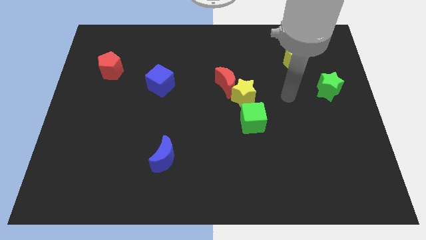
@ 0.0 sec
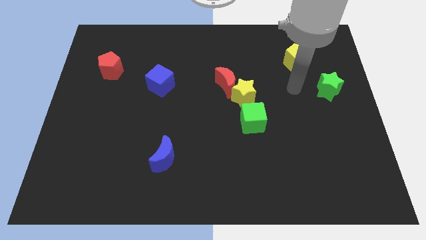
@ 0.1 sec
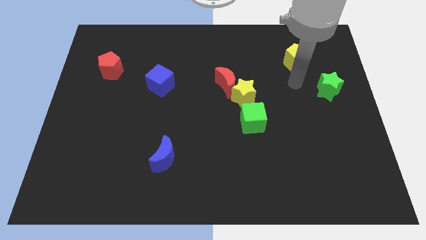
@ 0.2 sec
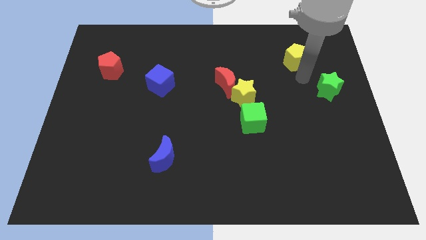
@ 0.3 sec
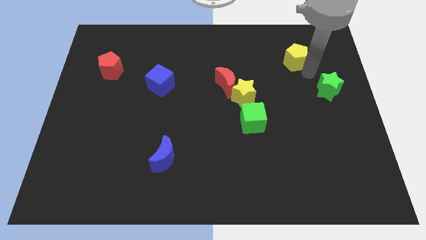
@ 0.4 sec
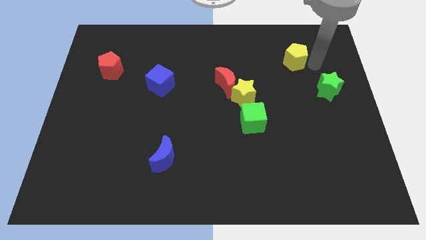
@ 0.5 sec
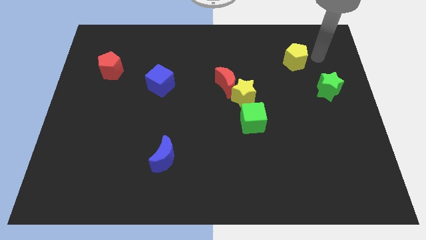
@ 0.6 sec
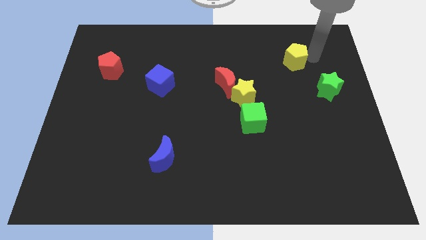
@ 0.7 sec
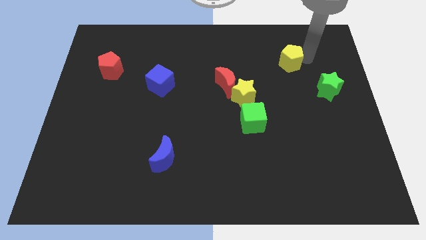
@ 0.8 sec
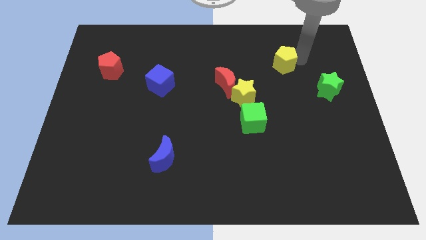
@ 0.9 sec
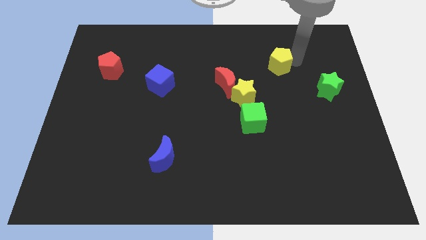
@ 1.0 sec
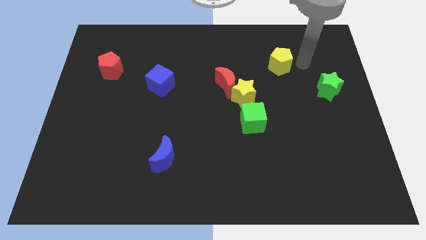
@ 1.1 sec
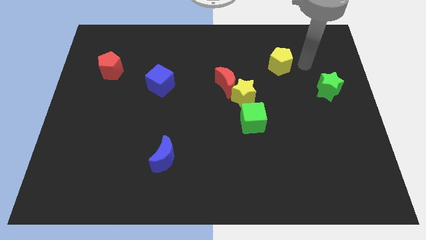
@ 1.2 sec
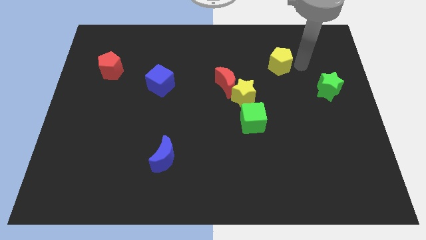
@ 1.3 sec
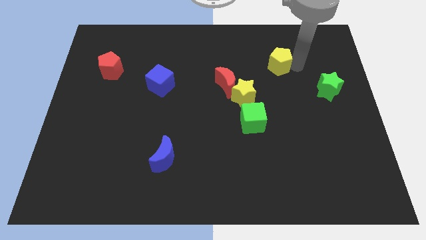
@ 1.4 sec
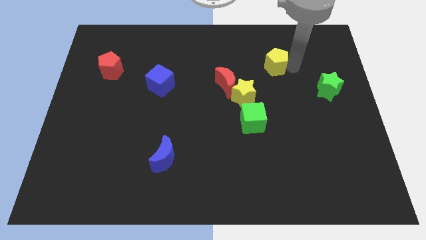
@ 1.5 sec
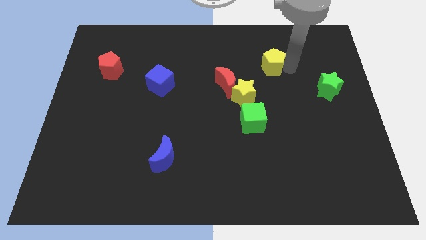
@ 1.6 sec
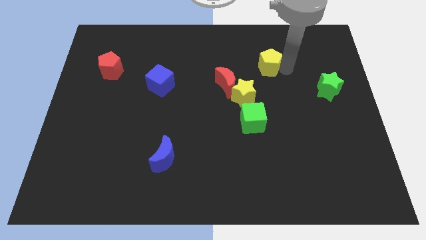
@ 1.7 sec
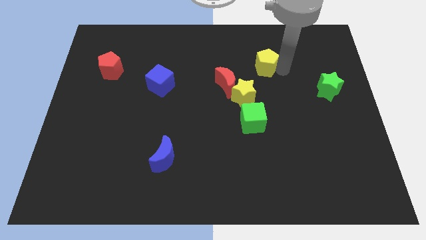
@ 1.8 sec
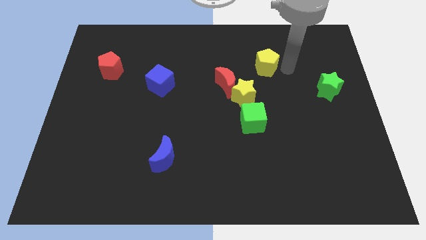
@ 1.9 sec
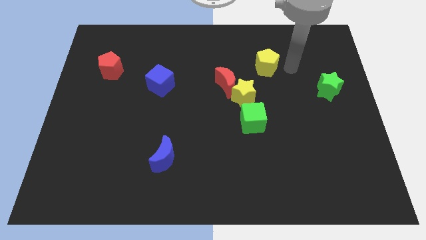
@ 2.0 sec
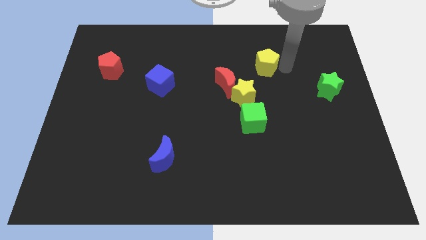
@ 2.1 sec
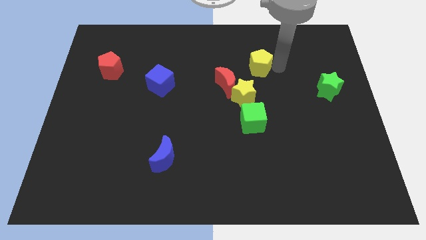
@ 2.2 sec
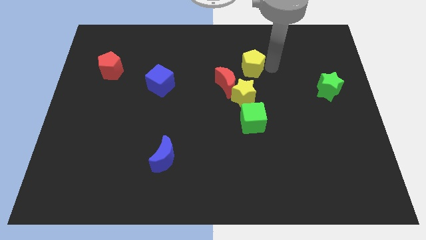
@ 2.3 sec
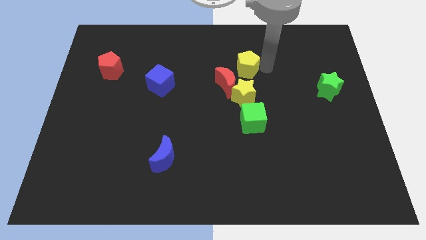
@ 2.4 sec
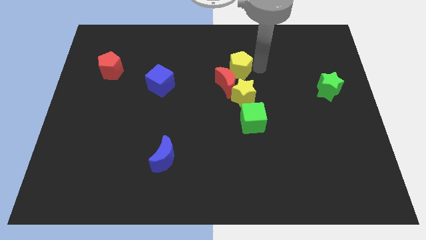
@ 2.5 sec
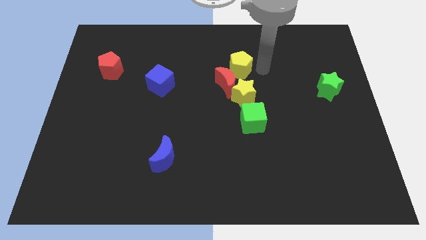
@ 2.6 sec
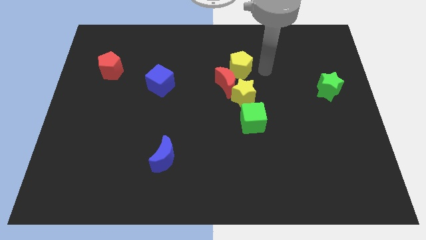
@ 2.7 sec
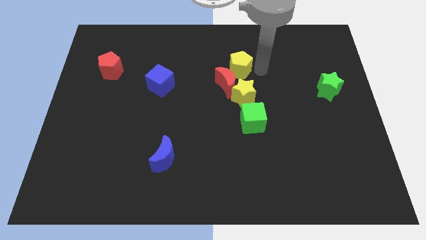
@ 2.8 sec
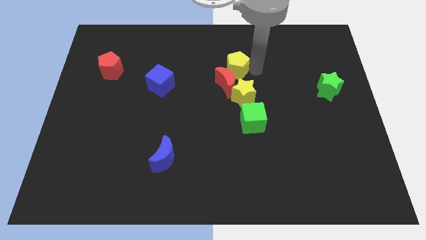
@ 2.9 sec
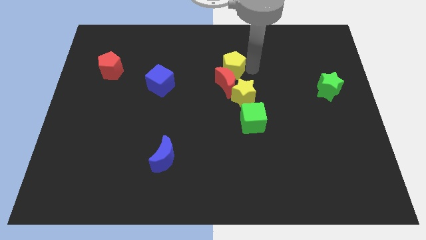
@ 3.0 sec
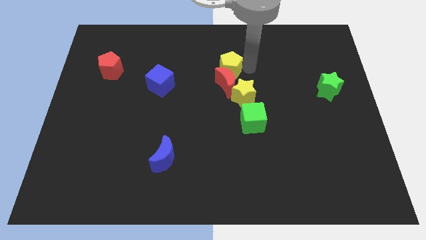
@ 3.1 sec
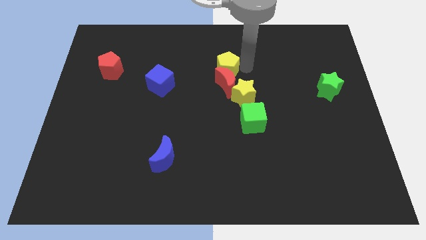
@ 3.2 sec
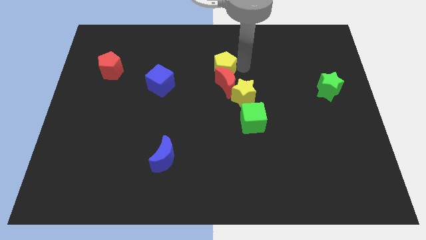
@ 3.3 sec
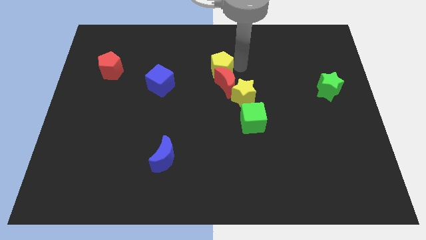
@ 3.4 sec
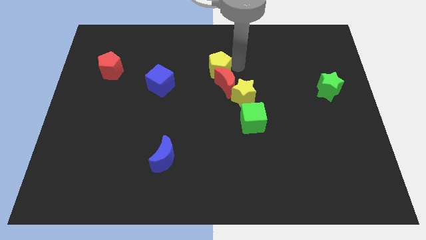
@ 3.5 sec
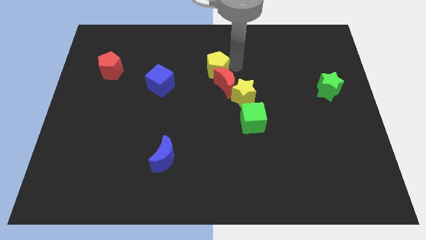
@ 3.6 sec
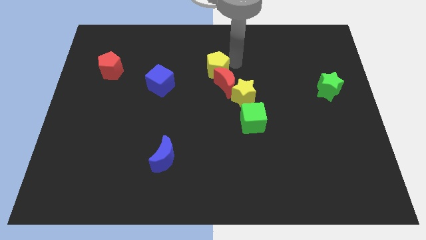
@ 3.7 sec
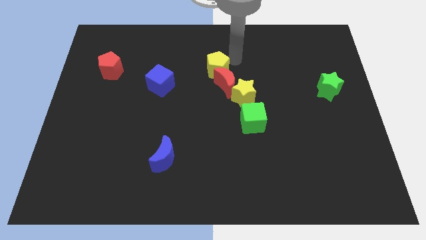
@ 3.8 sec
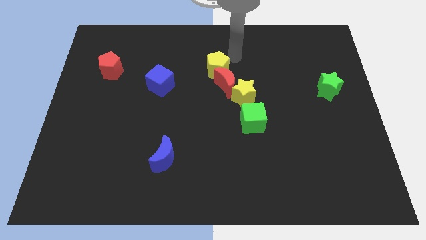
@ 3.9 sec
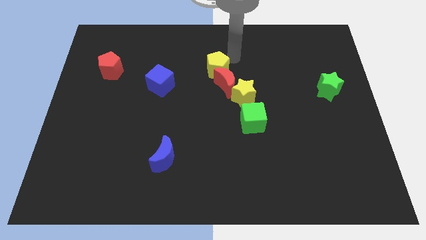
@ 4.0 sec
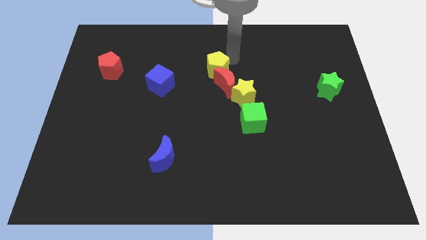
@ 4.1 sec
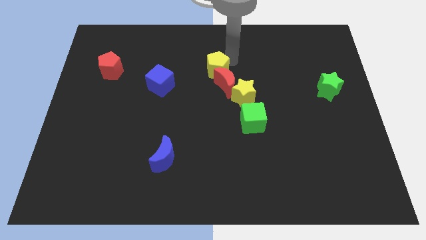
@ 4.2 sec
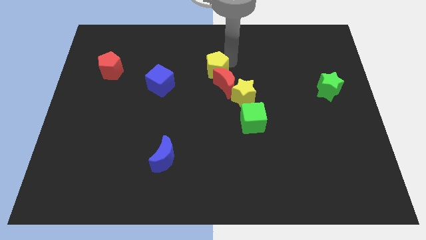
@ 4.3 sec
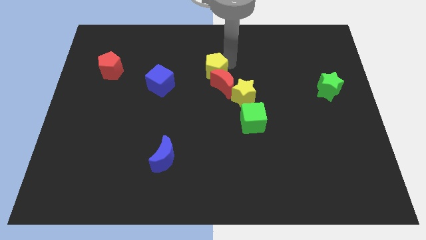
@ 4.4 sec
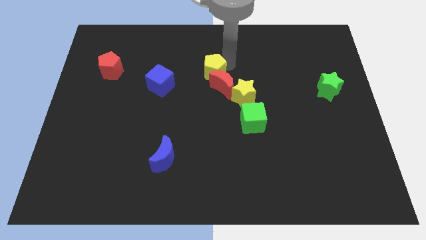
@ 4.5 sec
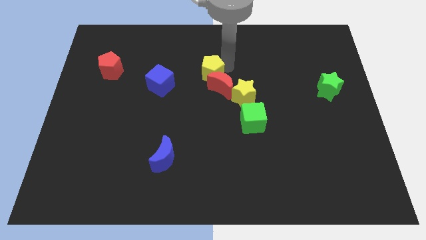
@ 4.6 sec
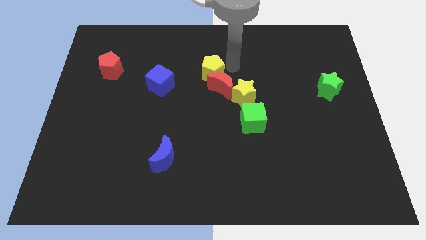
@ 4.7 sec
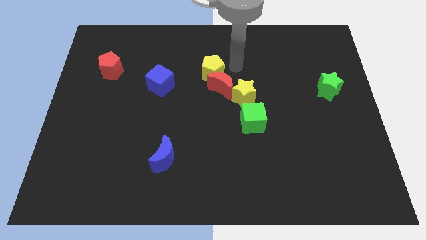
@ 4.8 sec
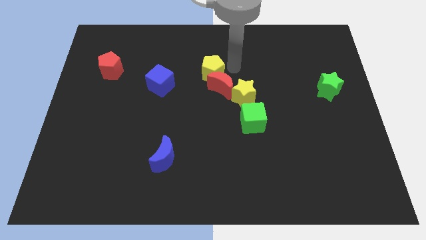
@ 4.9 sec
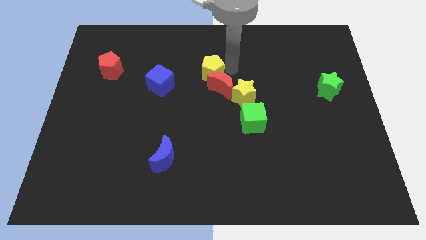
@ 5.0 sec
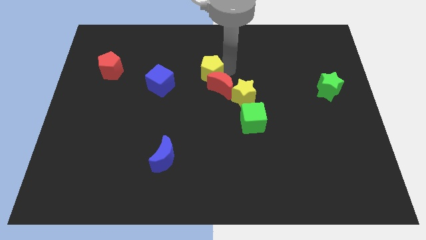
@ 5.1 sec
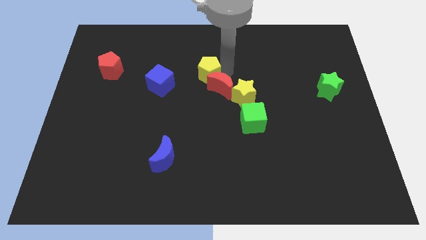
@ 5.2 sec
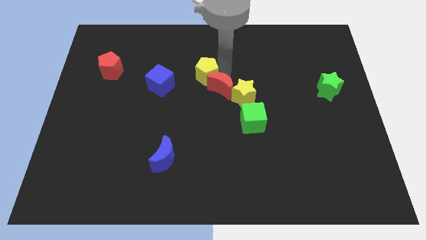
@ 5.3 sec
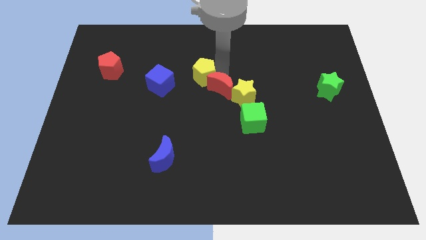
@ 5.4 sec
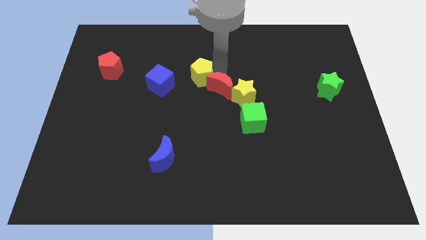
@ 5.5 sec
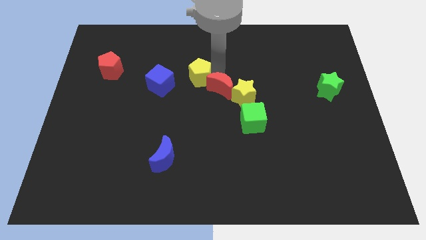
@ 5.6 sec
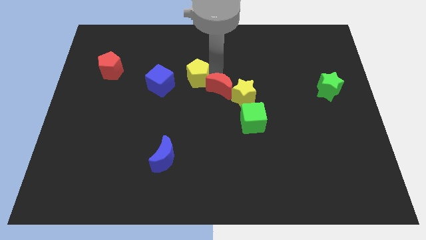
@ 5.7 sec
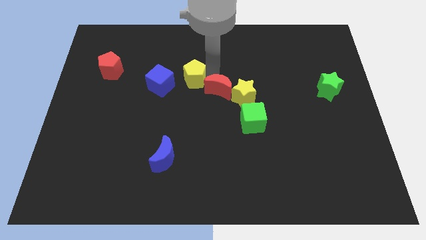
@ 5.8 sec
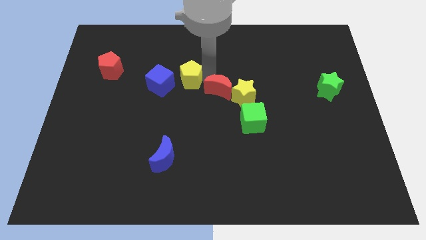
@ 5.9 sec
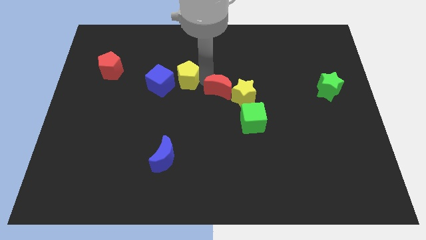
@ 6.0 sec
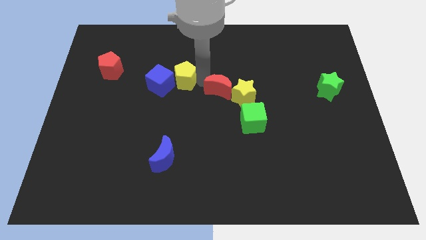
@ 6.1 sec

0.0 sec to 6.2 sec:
move the yellow pentagon next to the blue cube
